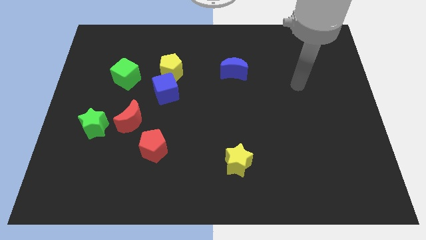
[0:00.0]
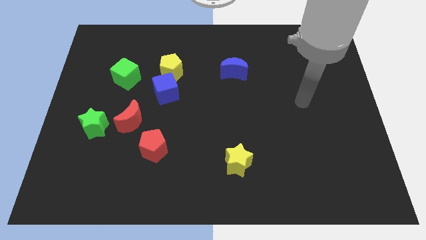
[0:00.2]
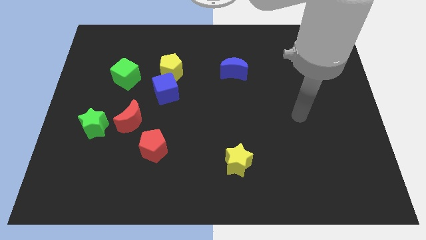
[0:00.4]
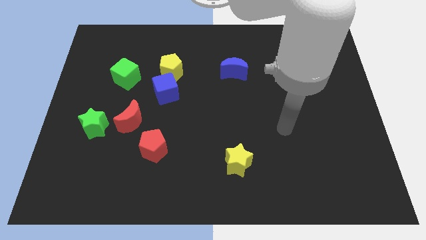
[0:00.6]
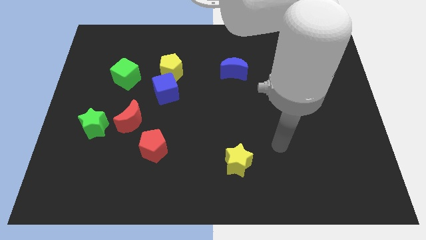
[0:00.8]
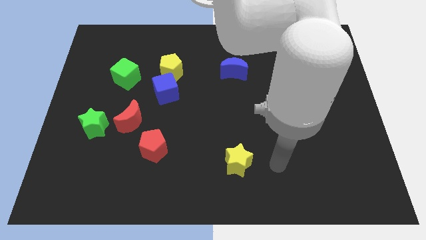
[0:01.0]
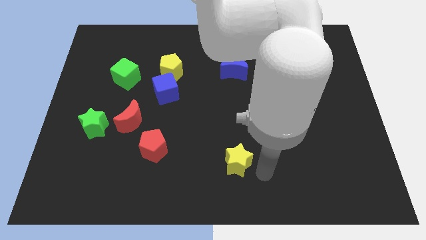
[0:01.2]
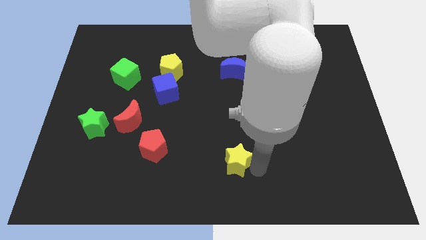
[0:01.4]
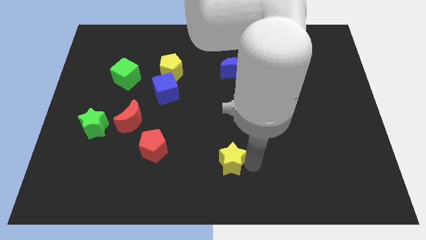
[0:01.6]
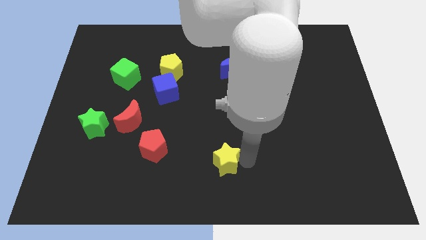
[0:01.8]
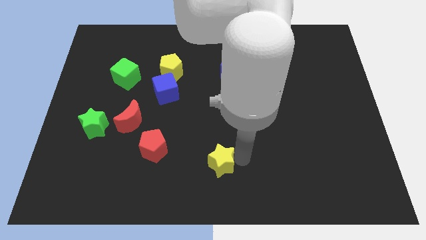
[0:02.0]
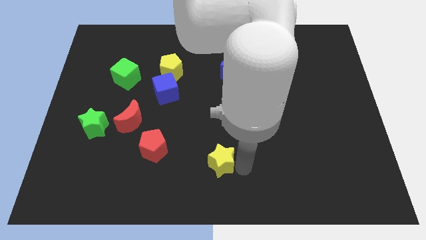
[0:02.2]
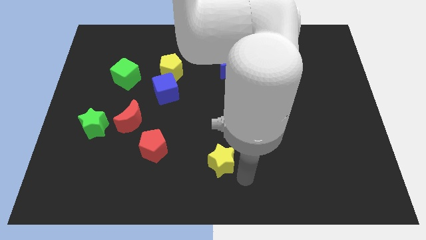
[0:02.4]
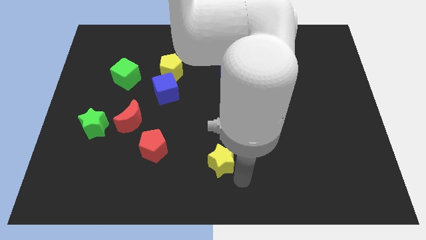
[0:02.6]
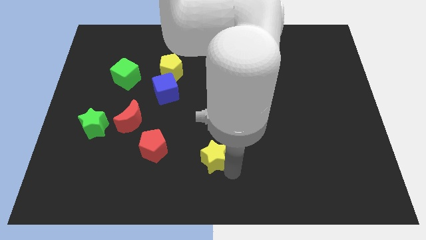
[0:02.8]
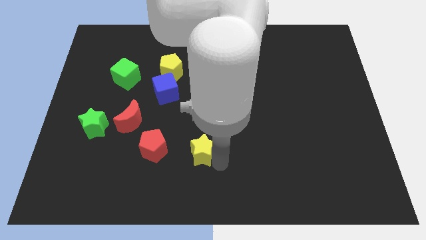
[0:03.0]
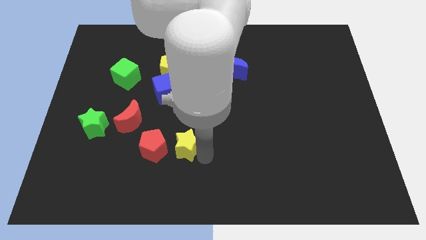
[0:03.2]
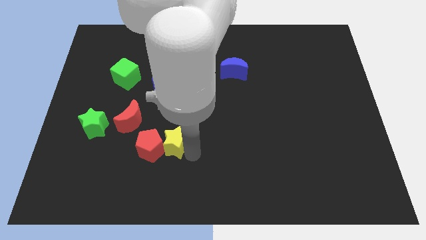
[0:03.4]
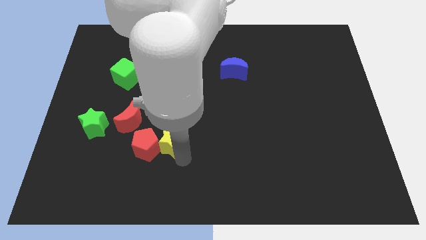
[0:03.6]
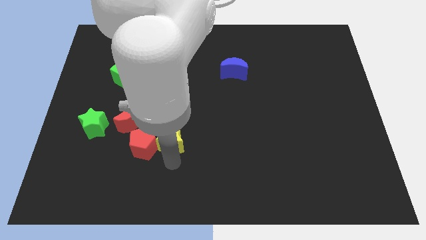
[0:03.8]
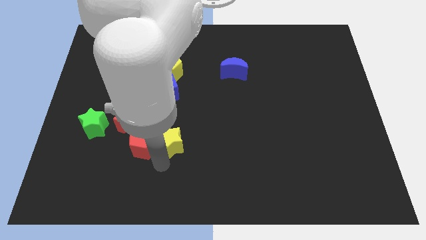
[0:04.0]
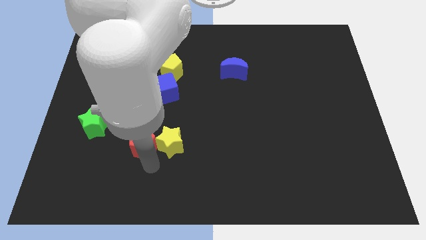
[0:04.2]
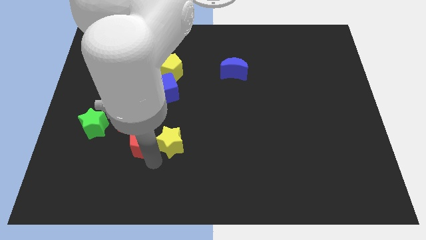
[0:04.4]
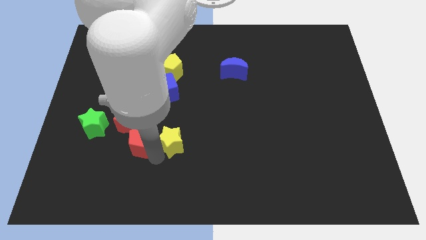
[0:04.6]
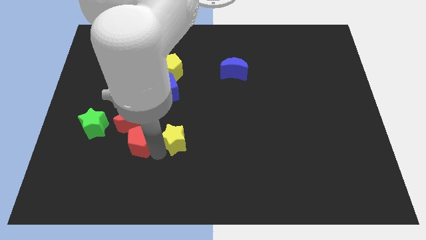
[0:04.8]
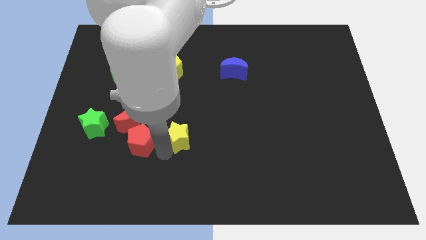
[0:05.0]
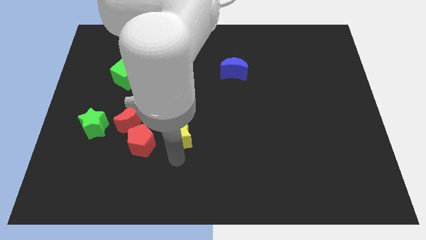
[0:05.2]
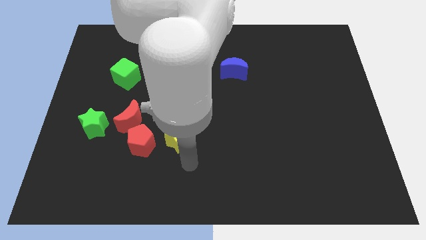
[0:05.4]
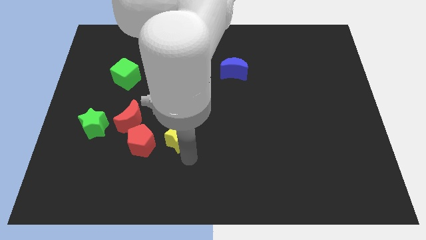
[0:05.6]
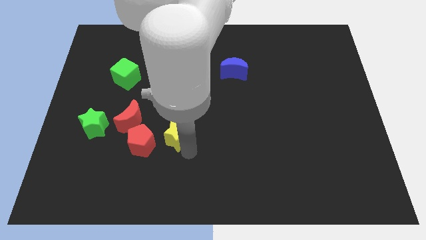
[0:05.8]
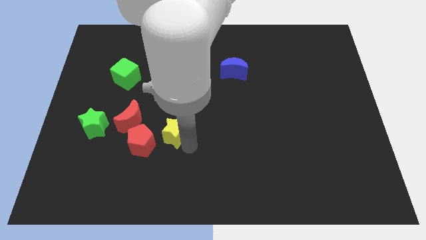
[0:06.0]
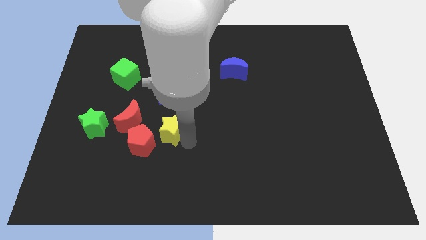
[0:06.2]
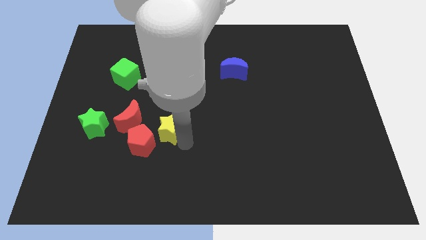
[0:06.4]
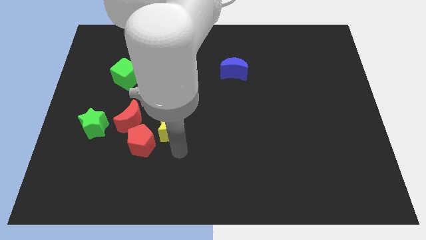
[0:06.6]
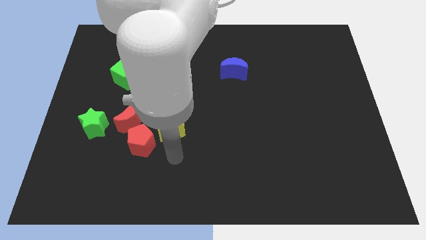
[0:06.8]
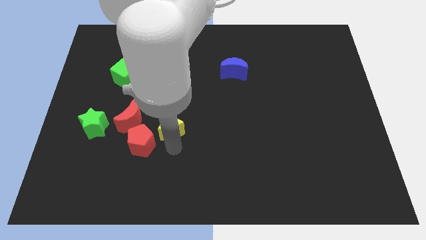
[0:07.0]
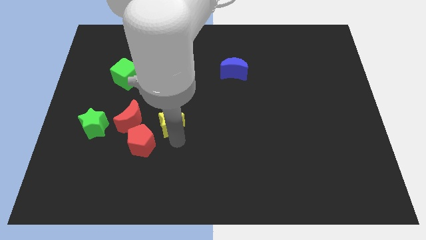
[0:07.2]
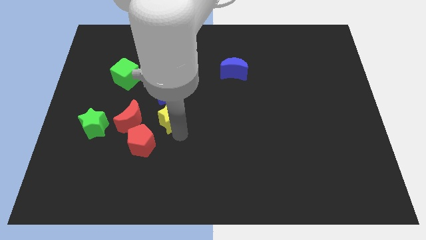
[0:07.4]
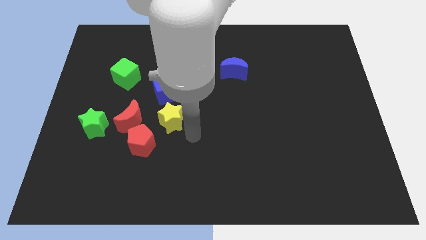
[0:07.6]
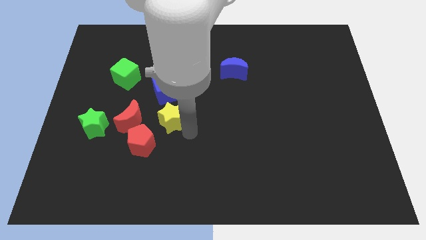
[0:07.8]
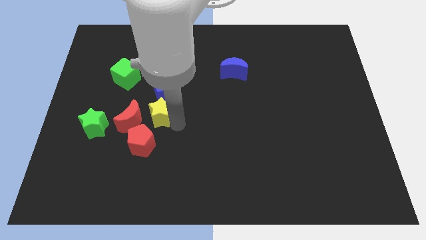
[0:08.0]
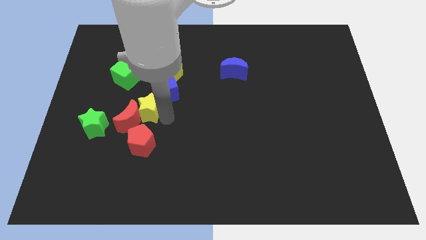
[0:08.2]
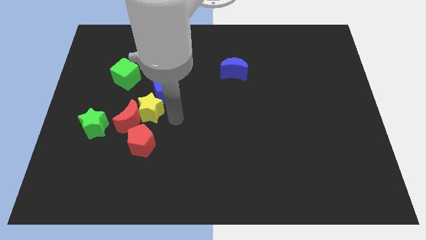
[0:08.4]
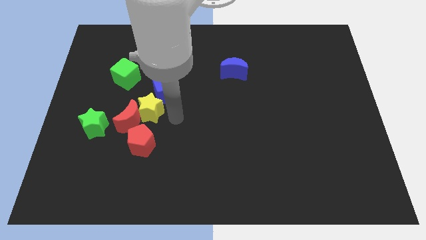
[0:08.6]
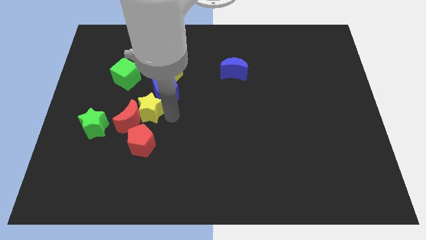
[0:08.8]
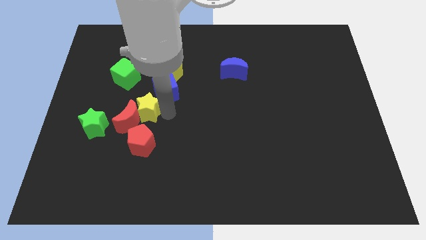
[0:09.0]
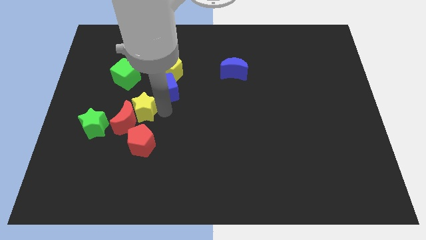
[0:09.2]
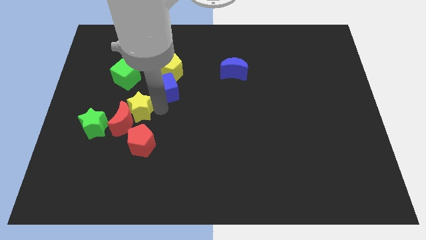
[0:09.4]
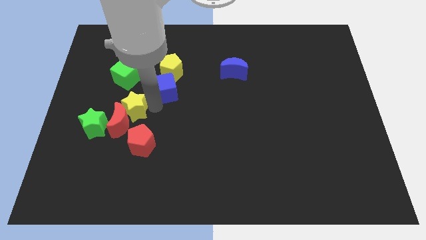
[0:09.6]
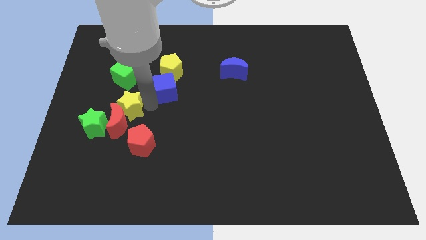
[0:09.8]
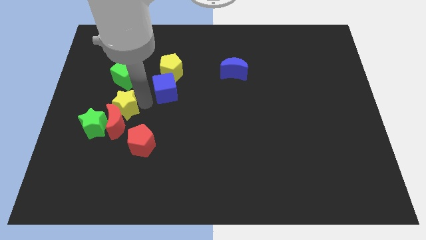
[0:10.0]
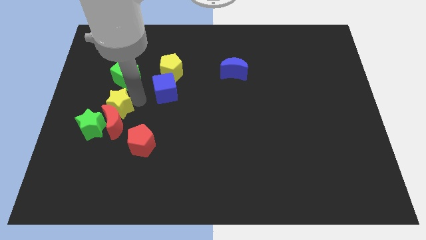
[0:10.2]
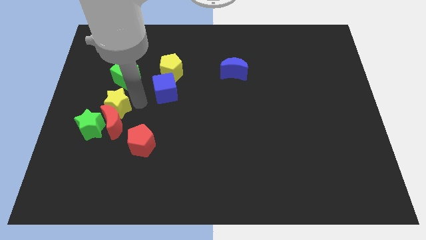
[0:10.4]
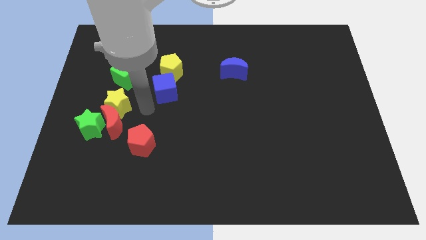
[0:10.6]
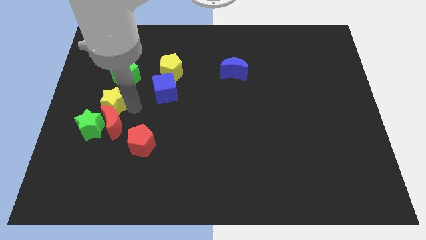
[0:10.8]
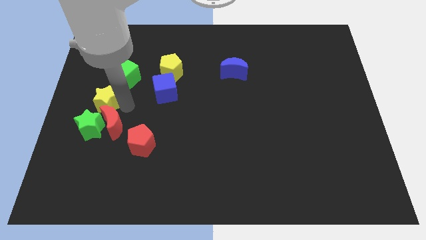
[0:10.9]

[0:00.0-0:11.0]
slide the yellow star to the center left
